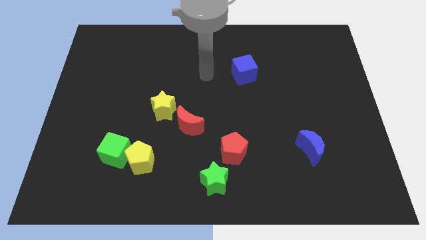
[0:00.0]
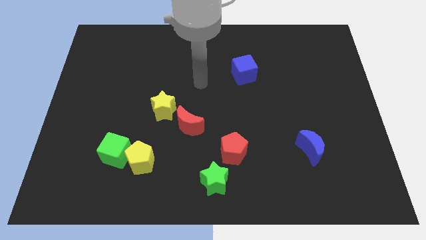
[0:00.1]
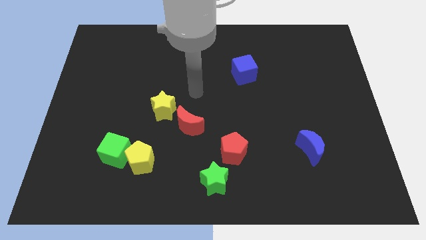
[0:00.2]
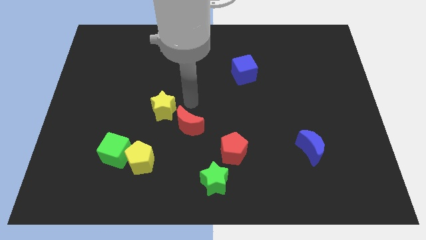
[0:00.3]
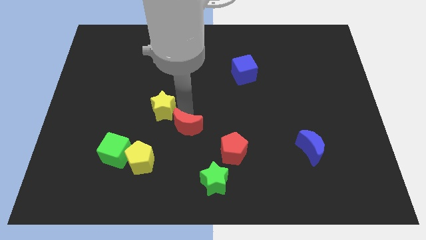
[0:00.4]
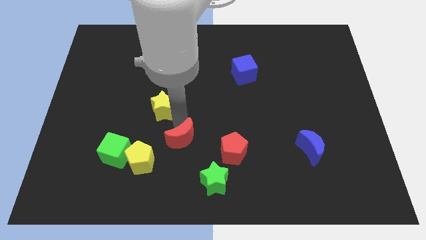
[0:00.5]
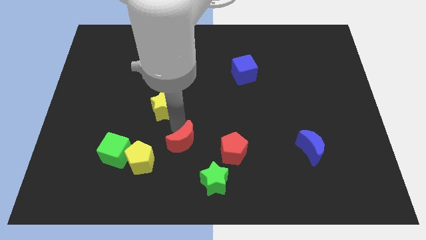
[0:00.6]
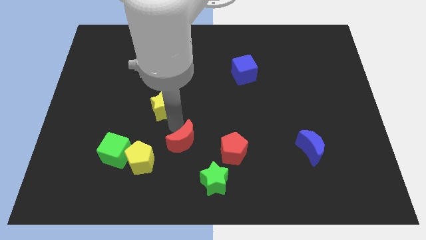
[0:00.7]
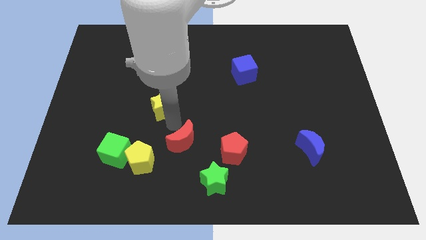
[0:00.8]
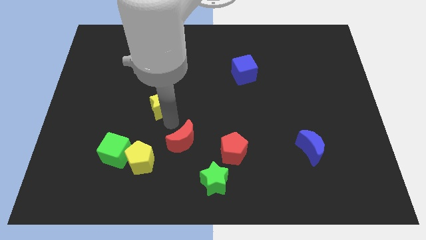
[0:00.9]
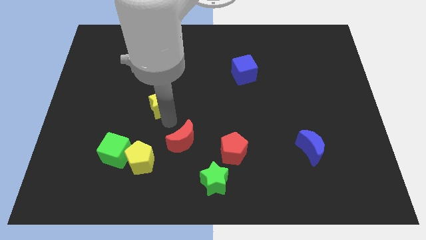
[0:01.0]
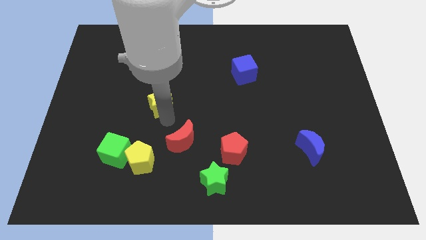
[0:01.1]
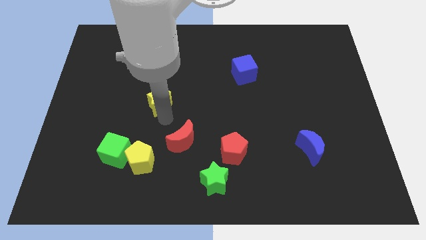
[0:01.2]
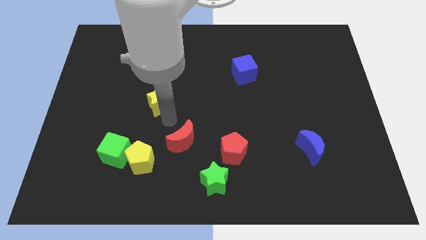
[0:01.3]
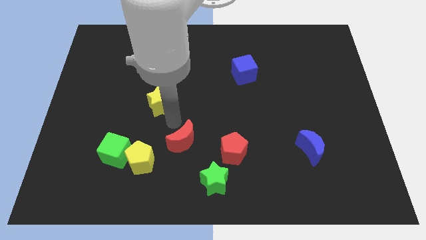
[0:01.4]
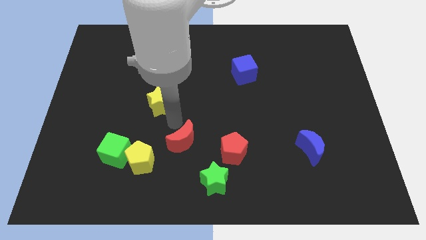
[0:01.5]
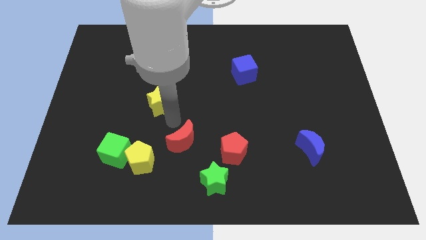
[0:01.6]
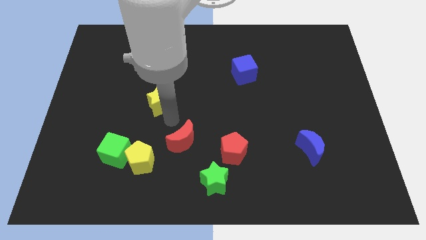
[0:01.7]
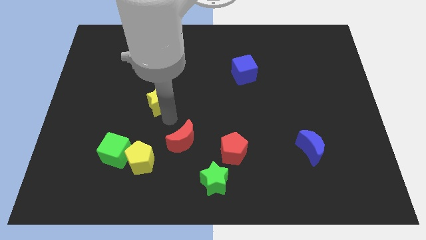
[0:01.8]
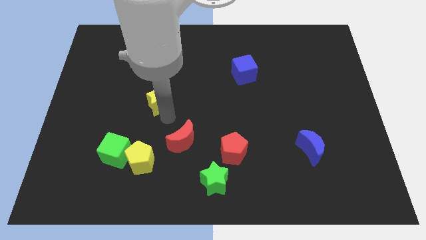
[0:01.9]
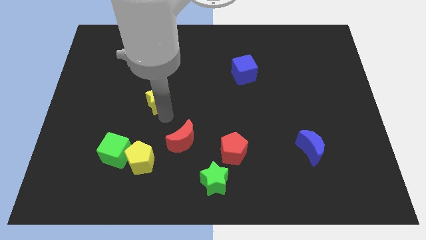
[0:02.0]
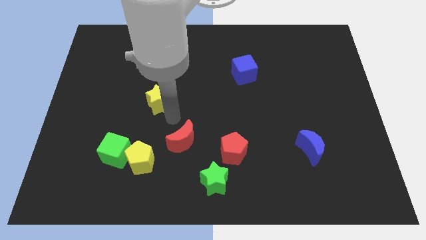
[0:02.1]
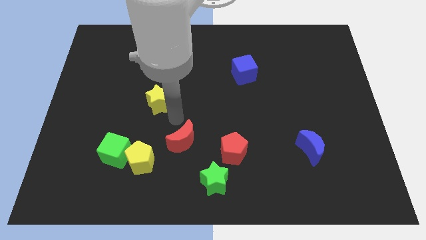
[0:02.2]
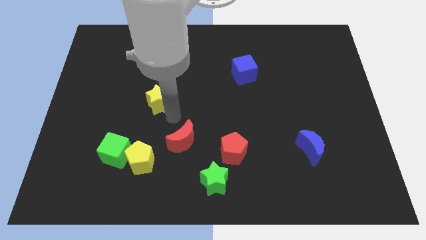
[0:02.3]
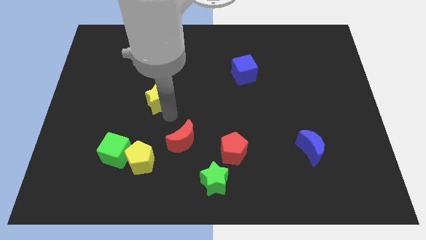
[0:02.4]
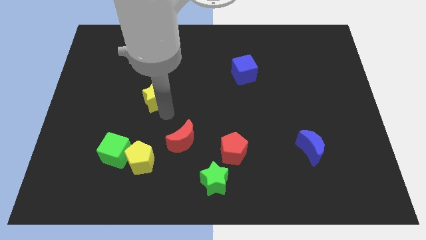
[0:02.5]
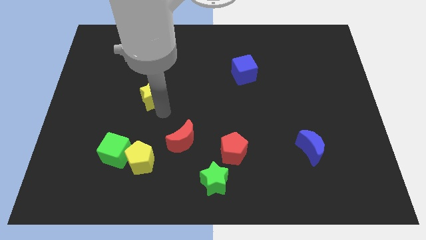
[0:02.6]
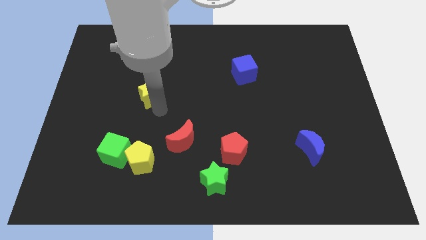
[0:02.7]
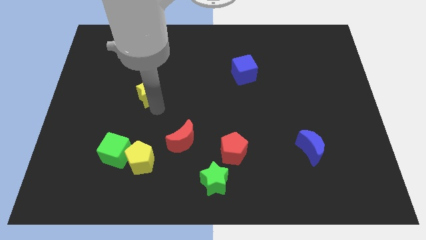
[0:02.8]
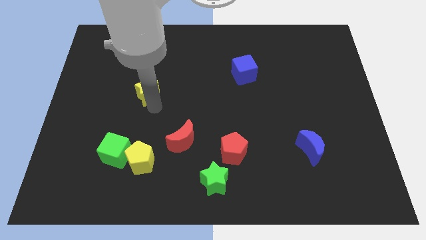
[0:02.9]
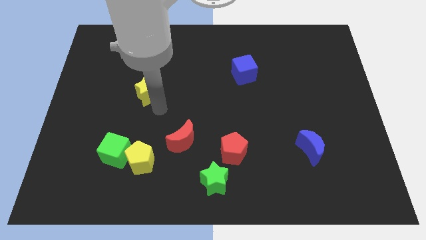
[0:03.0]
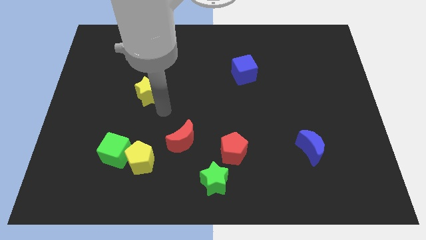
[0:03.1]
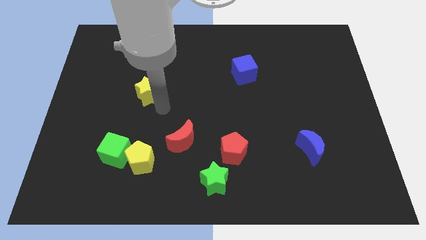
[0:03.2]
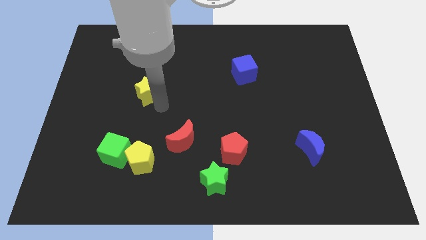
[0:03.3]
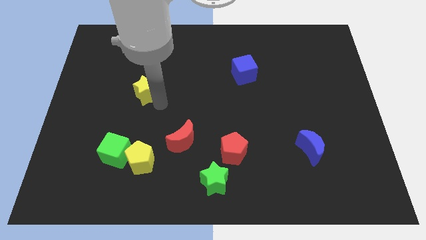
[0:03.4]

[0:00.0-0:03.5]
slide the yellow star upwards and left diagonally a little bit

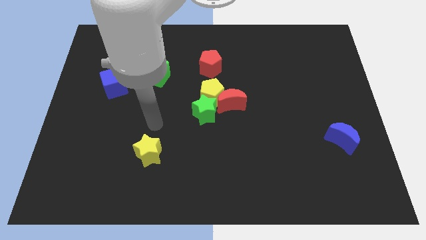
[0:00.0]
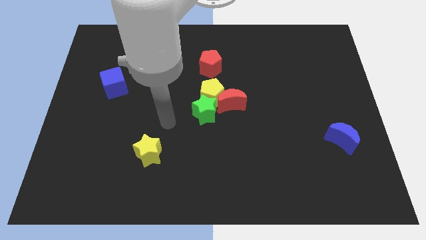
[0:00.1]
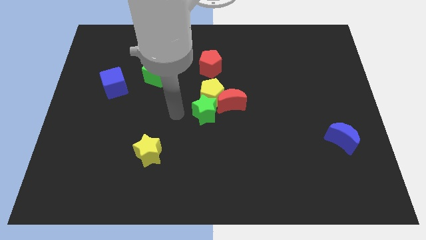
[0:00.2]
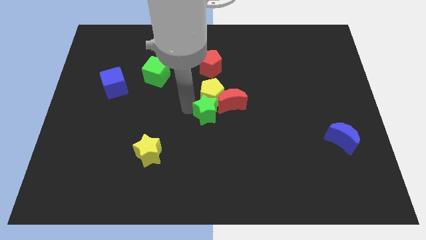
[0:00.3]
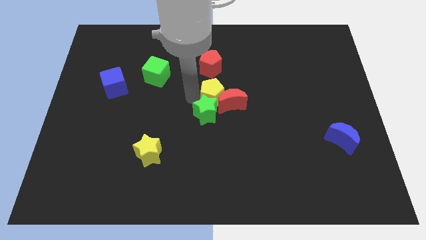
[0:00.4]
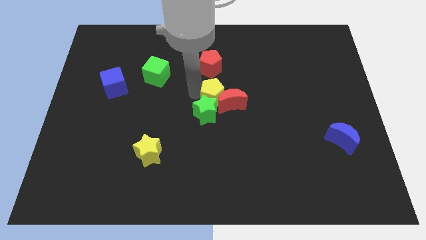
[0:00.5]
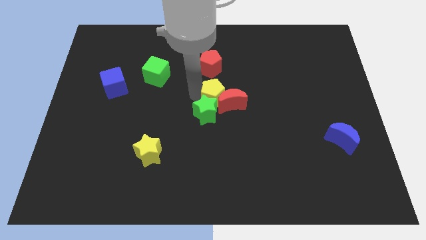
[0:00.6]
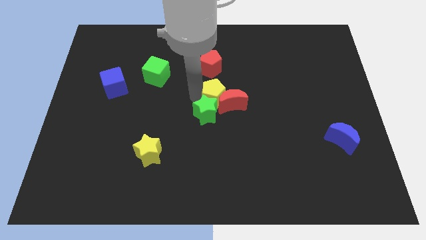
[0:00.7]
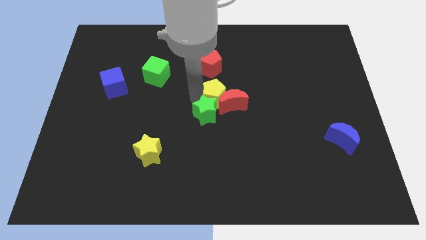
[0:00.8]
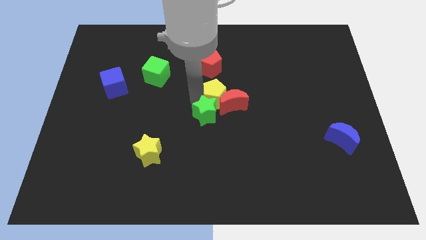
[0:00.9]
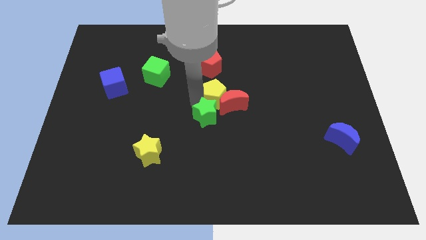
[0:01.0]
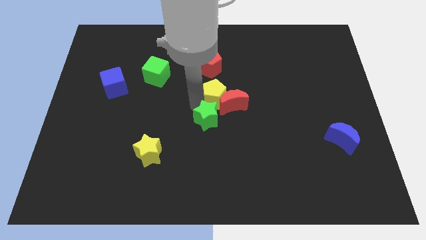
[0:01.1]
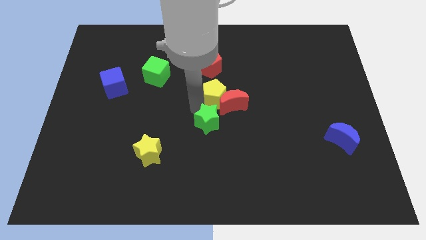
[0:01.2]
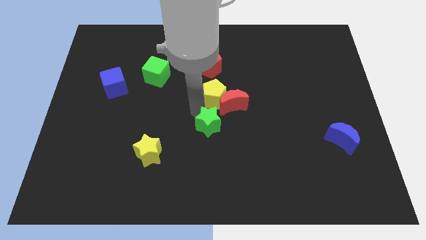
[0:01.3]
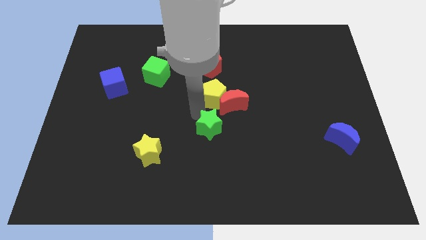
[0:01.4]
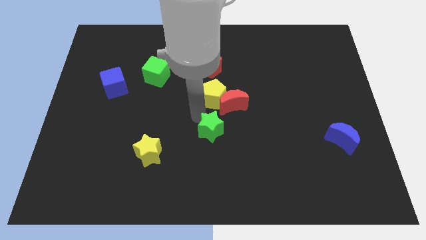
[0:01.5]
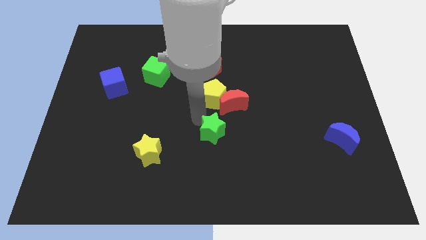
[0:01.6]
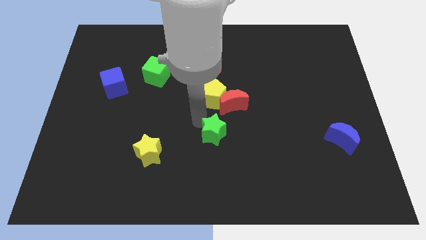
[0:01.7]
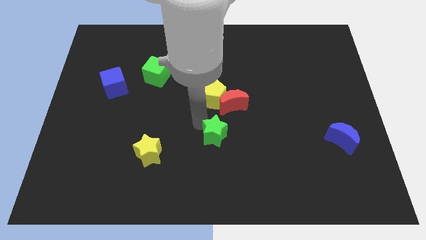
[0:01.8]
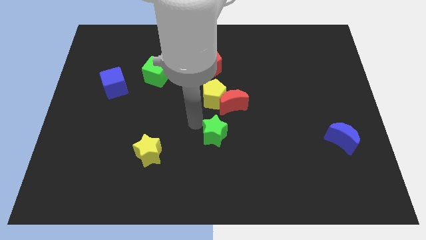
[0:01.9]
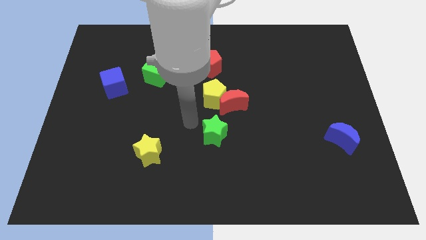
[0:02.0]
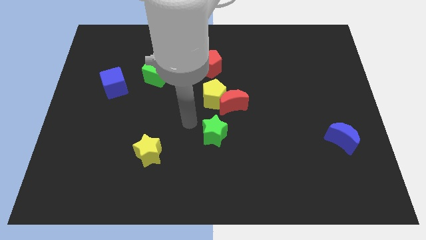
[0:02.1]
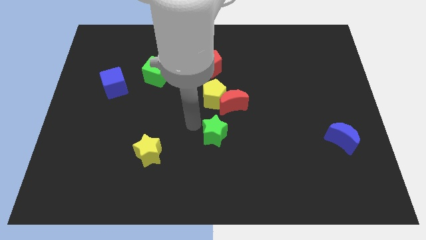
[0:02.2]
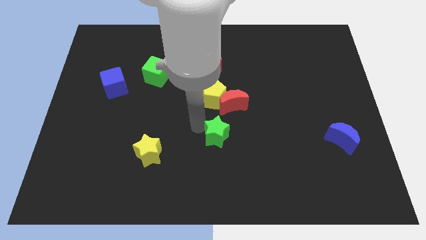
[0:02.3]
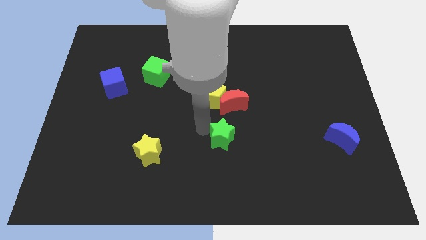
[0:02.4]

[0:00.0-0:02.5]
slightly slide the green star down and to the right

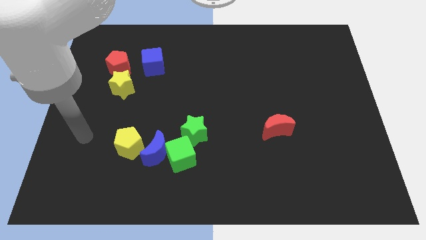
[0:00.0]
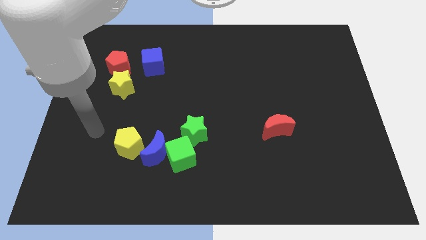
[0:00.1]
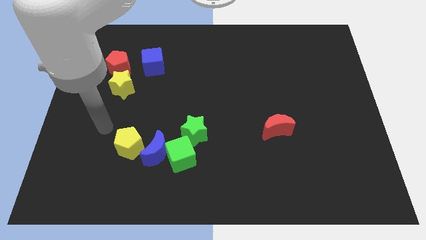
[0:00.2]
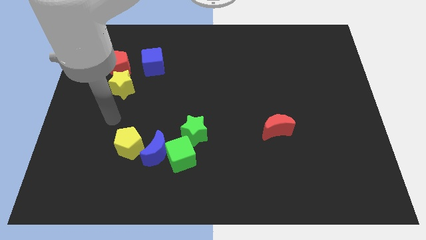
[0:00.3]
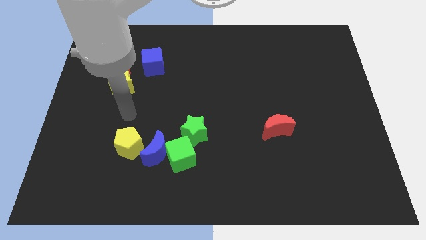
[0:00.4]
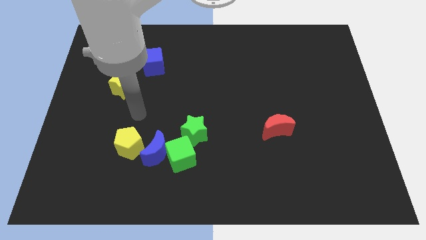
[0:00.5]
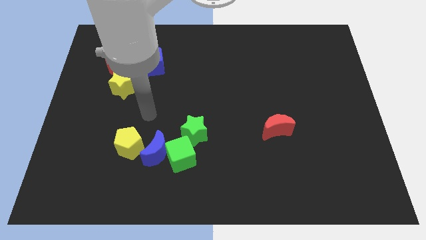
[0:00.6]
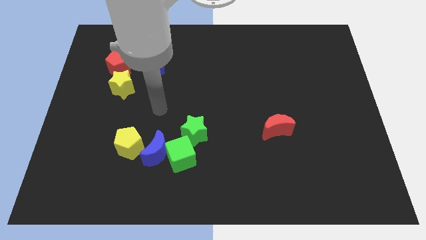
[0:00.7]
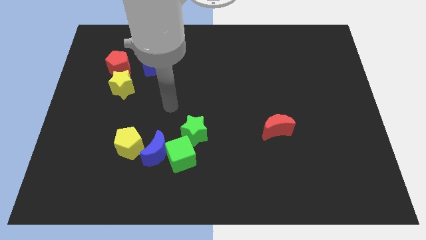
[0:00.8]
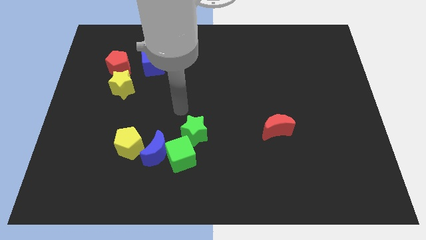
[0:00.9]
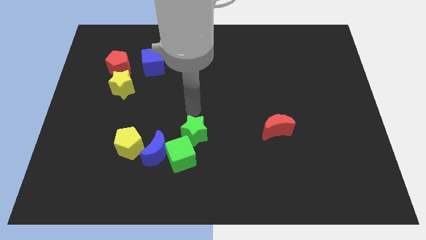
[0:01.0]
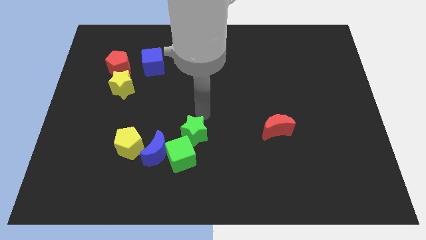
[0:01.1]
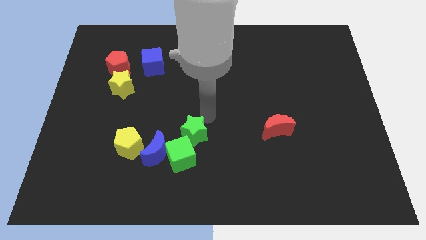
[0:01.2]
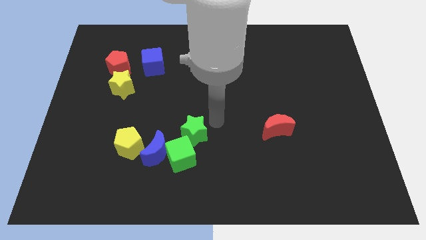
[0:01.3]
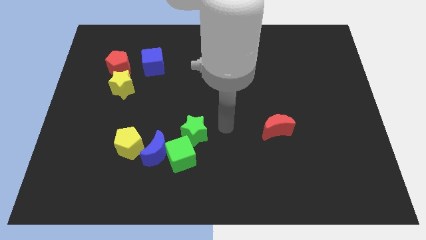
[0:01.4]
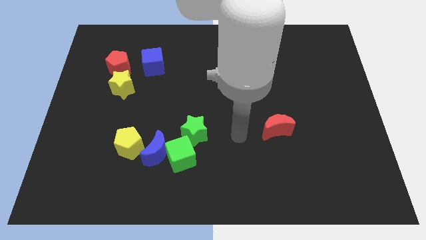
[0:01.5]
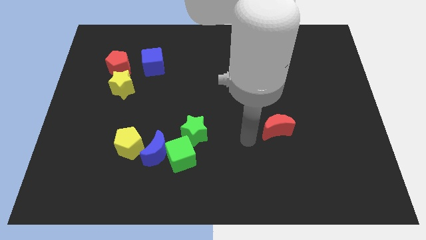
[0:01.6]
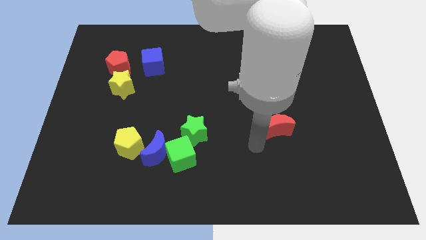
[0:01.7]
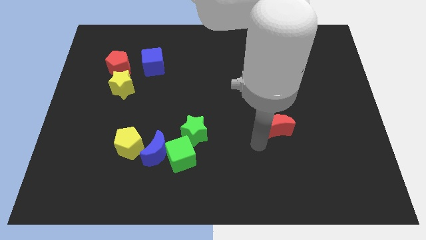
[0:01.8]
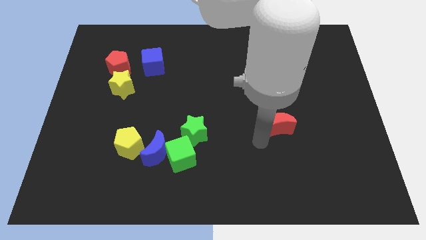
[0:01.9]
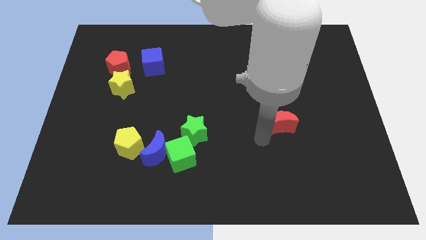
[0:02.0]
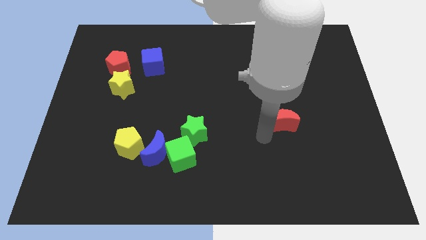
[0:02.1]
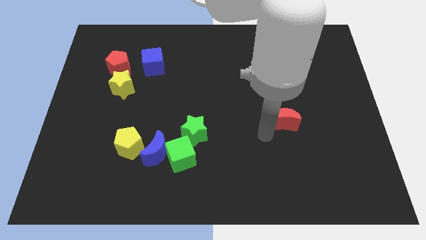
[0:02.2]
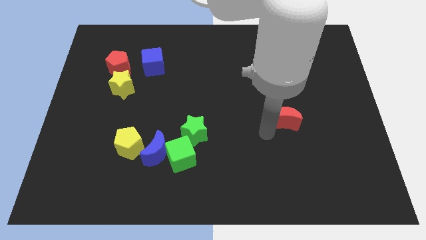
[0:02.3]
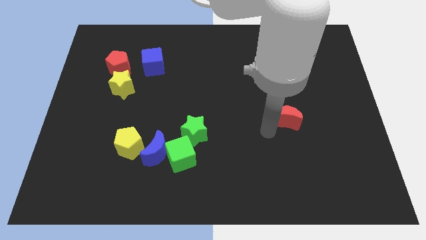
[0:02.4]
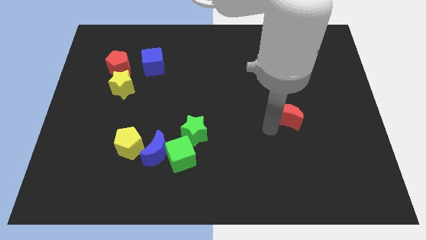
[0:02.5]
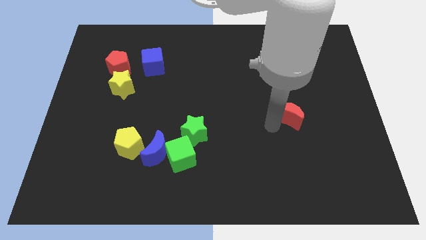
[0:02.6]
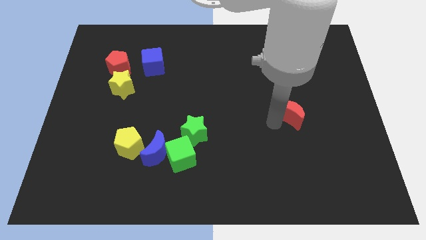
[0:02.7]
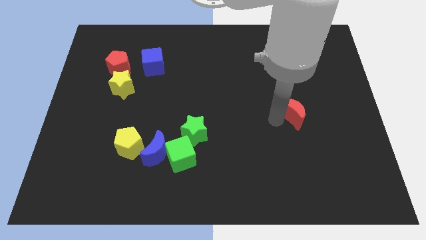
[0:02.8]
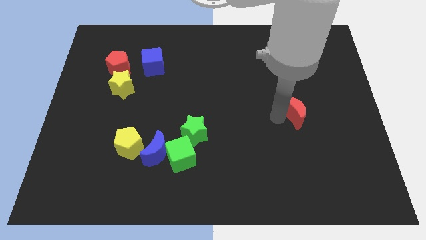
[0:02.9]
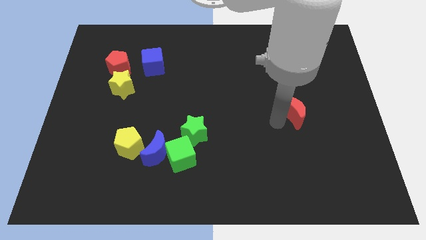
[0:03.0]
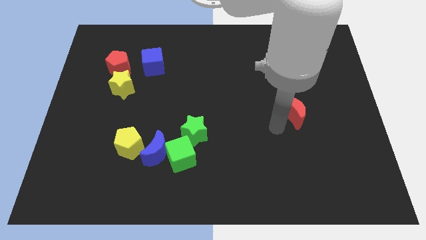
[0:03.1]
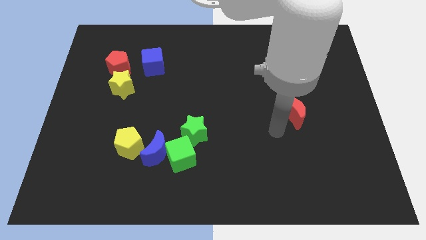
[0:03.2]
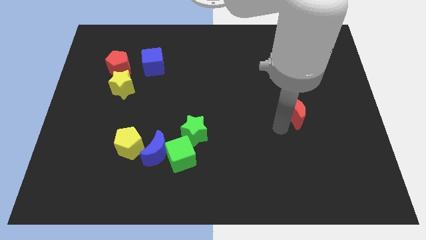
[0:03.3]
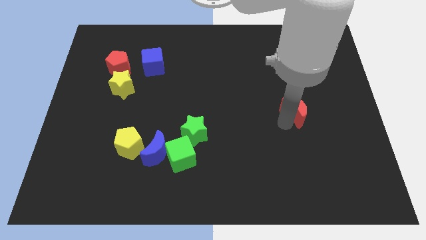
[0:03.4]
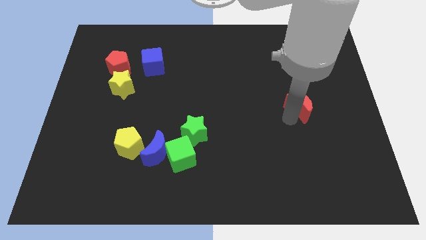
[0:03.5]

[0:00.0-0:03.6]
slightly slide the red moon up and right
